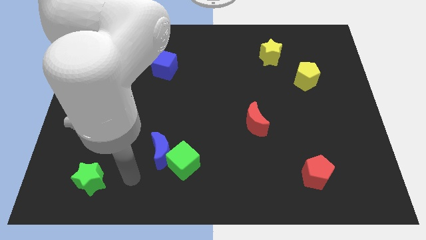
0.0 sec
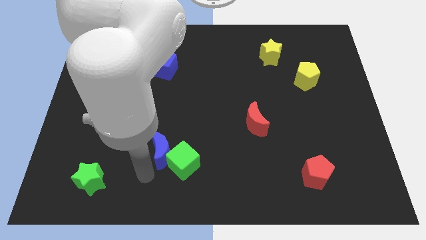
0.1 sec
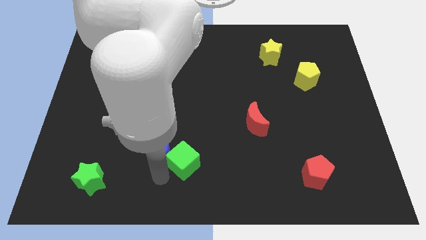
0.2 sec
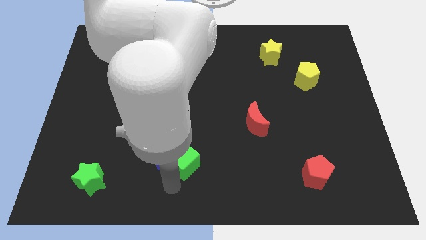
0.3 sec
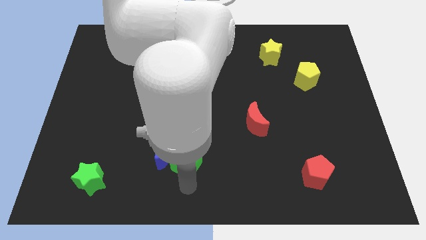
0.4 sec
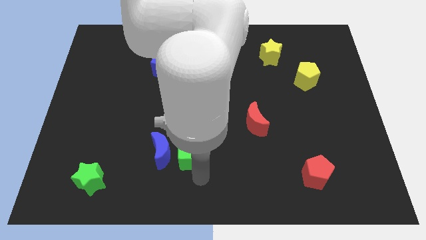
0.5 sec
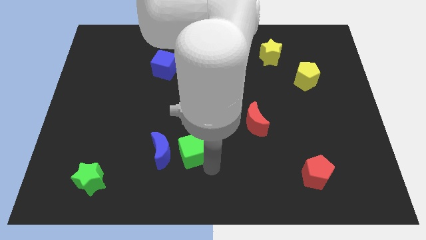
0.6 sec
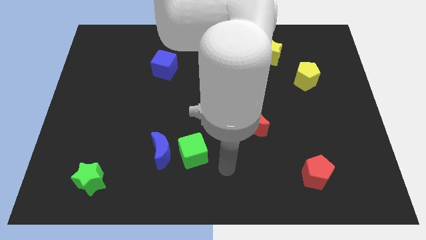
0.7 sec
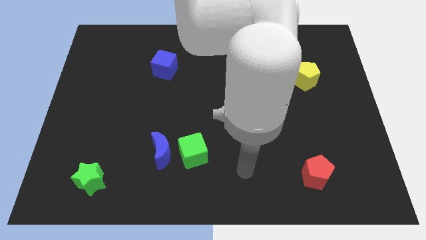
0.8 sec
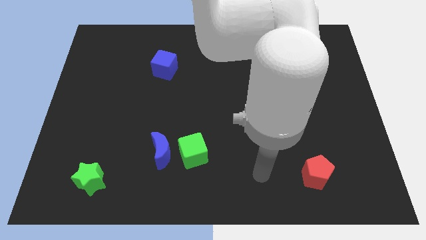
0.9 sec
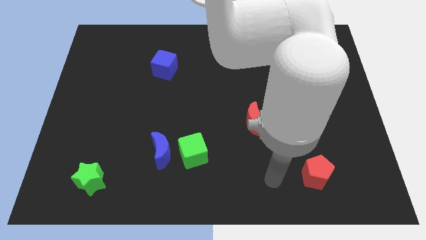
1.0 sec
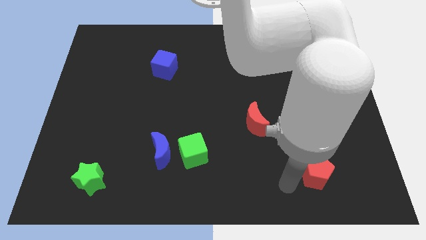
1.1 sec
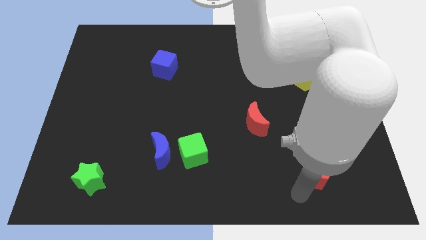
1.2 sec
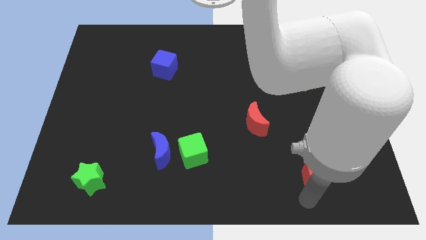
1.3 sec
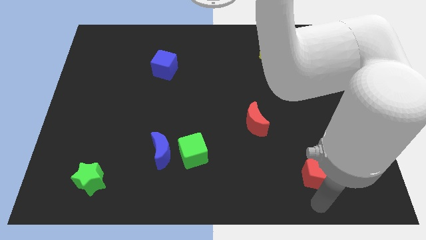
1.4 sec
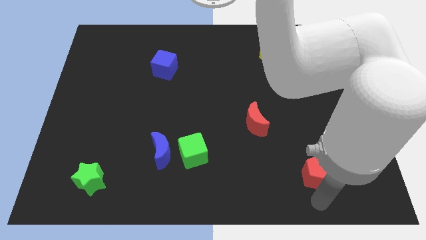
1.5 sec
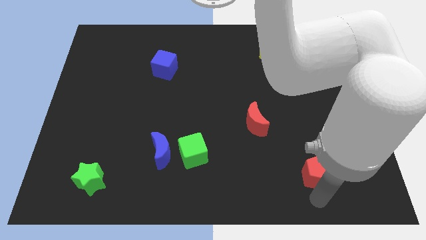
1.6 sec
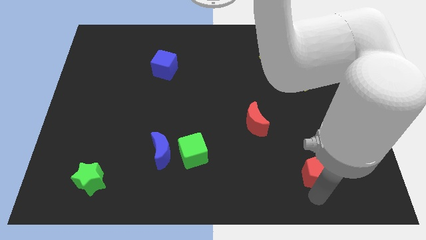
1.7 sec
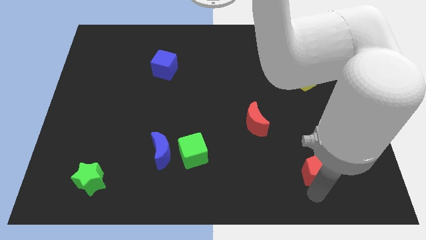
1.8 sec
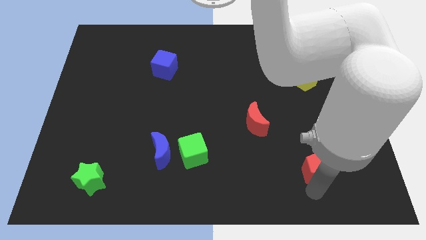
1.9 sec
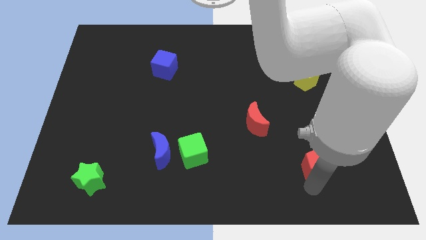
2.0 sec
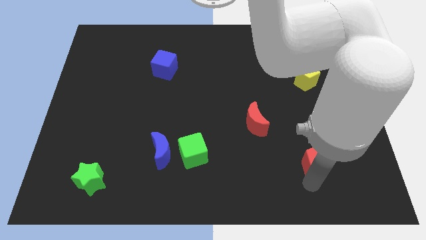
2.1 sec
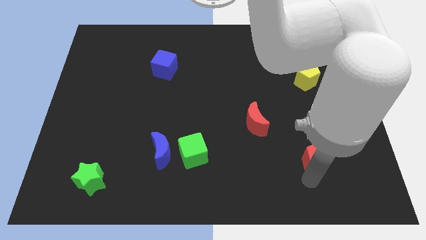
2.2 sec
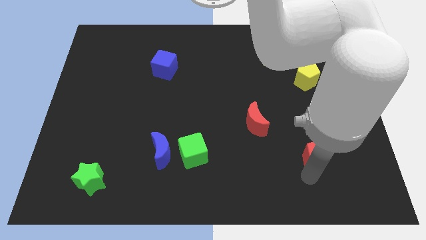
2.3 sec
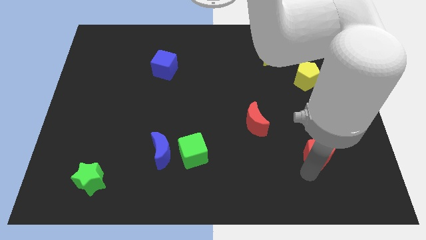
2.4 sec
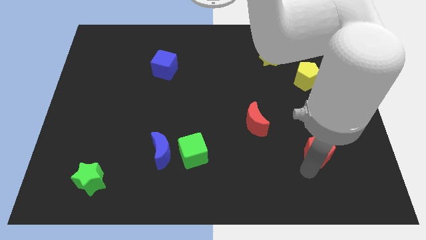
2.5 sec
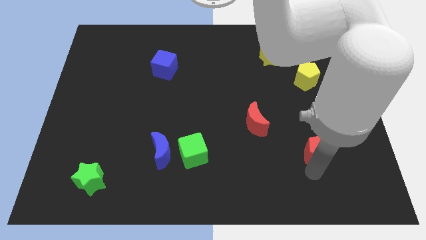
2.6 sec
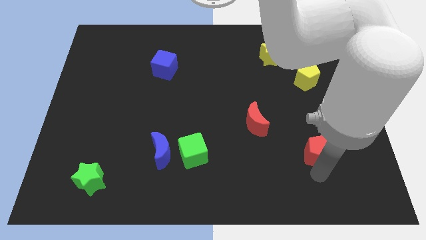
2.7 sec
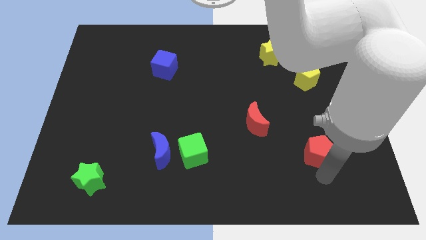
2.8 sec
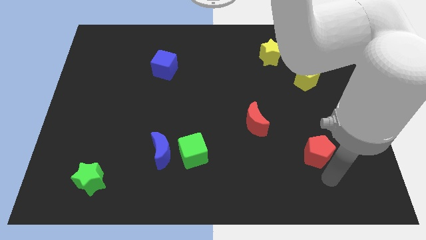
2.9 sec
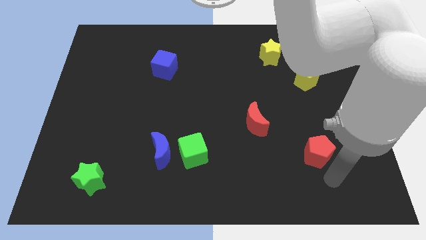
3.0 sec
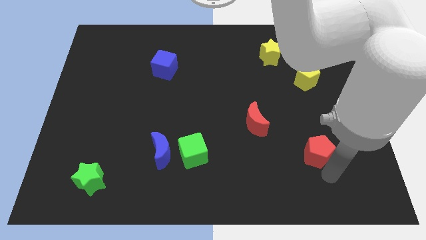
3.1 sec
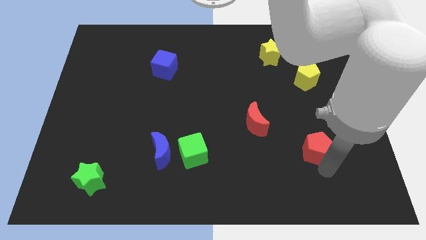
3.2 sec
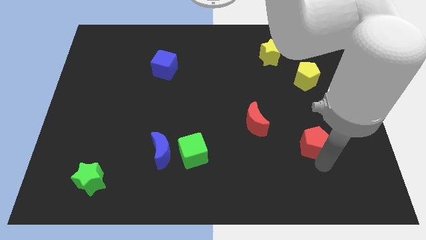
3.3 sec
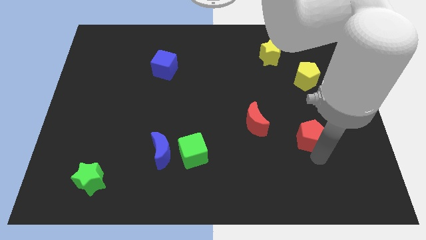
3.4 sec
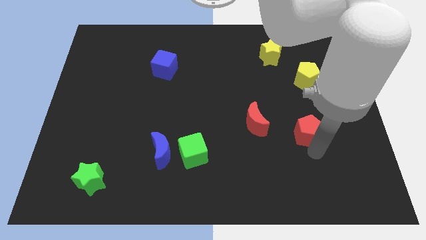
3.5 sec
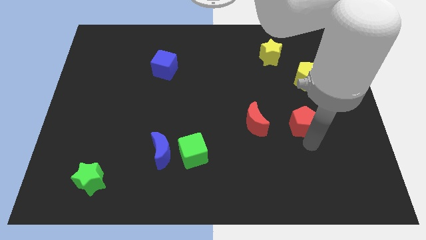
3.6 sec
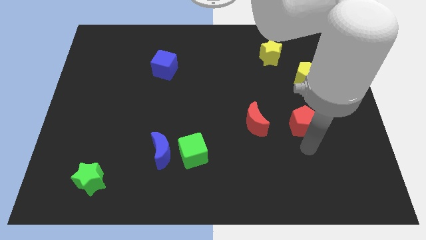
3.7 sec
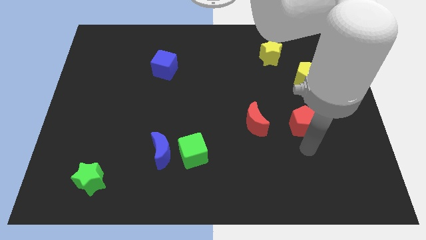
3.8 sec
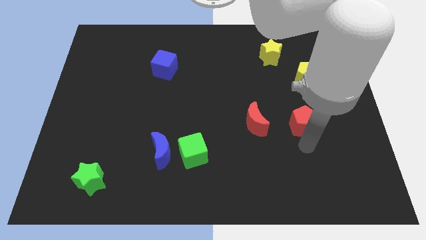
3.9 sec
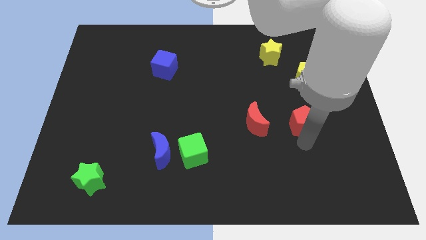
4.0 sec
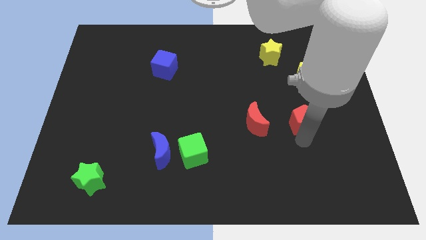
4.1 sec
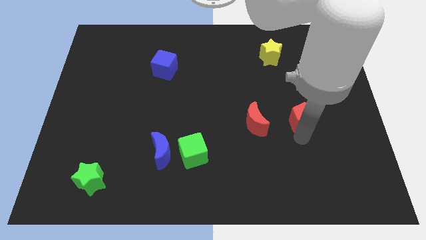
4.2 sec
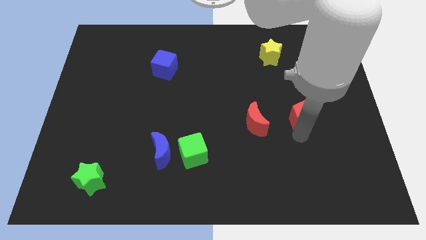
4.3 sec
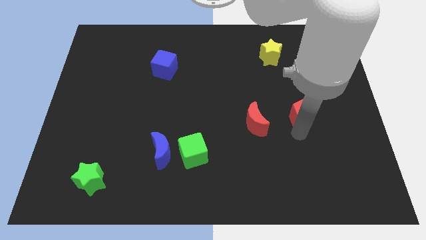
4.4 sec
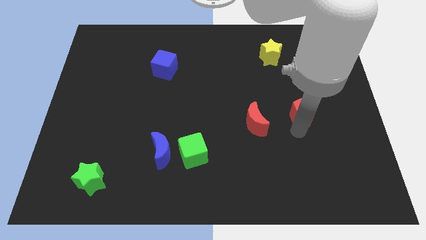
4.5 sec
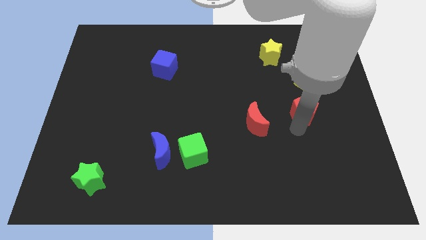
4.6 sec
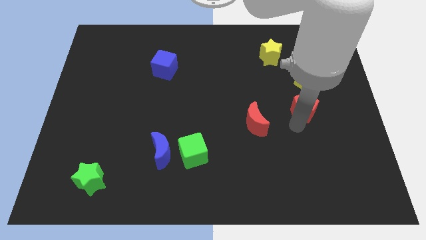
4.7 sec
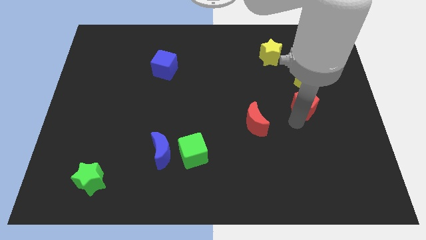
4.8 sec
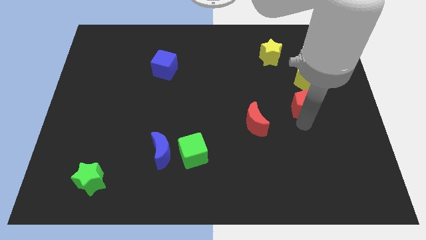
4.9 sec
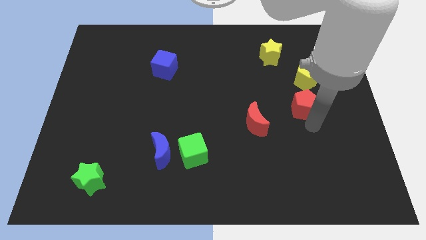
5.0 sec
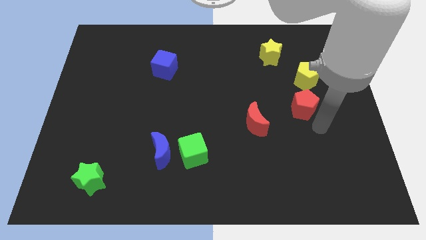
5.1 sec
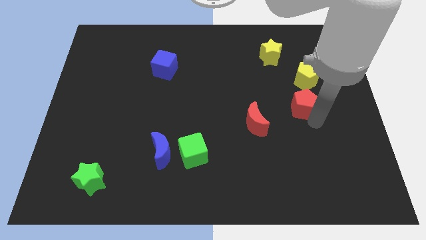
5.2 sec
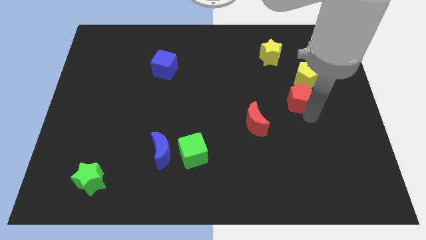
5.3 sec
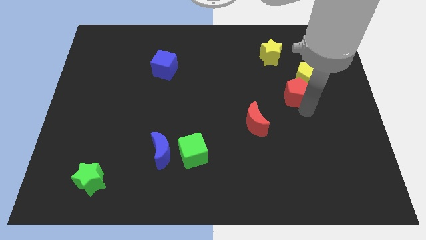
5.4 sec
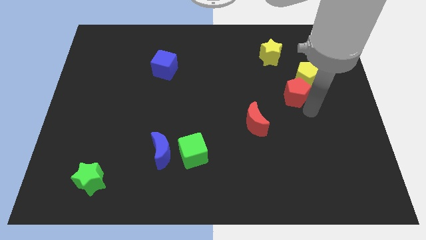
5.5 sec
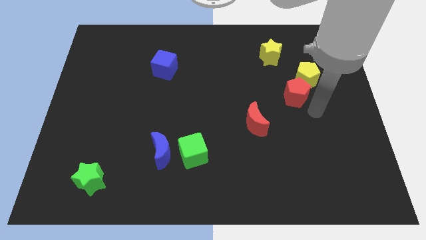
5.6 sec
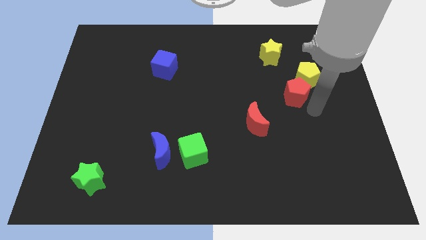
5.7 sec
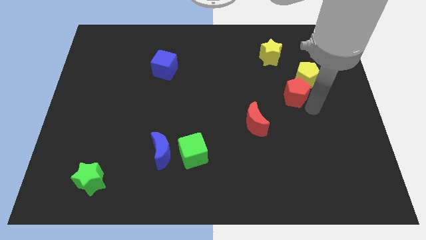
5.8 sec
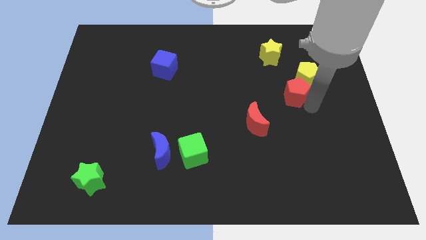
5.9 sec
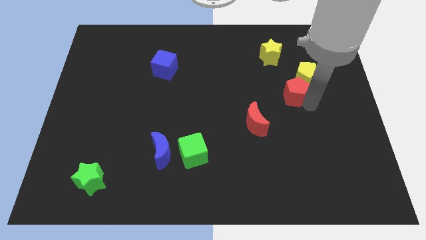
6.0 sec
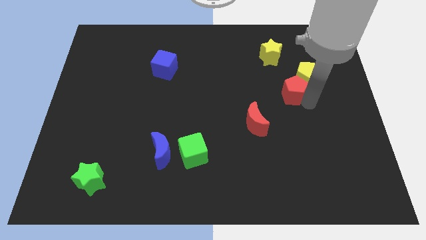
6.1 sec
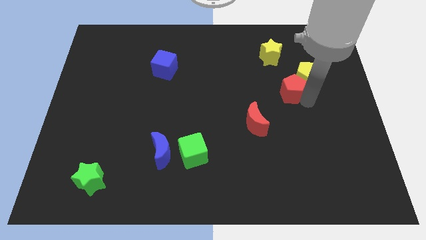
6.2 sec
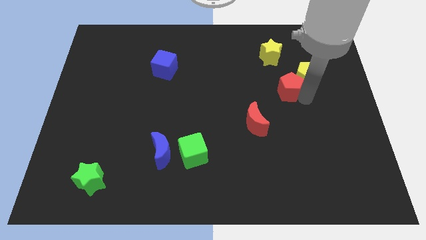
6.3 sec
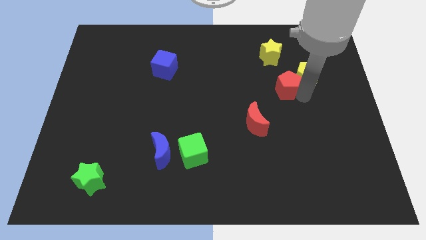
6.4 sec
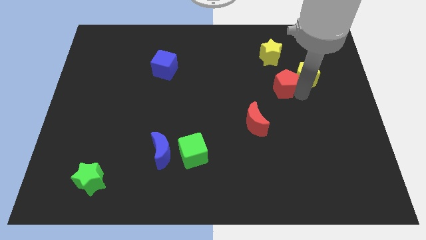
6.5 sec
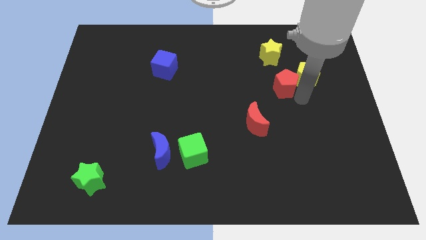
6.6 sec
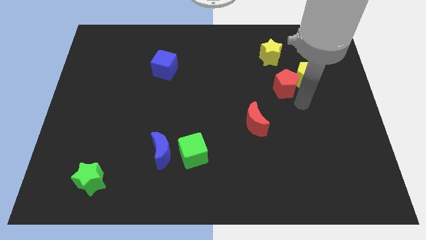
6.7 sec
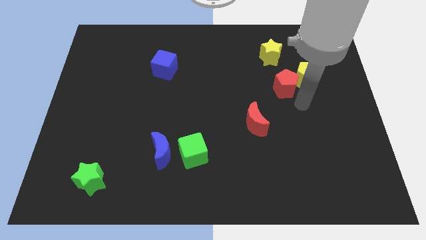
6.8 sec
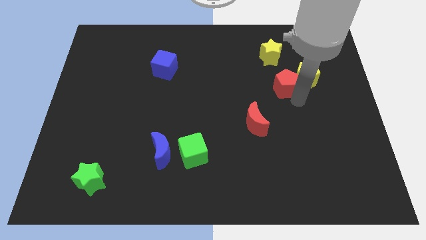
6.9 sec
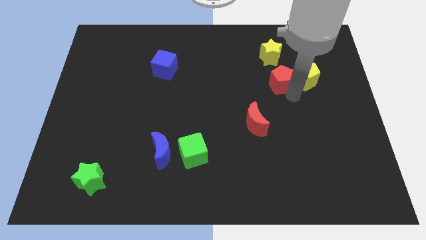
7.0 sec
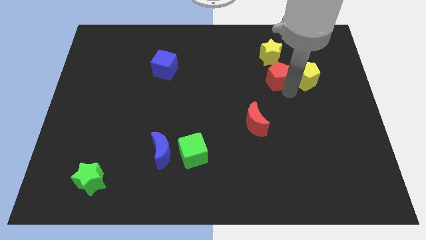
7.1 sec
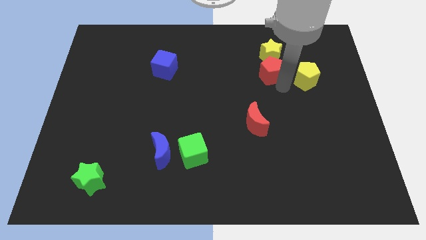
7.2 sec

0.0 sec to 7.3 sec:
put the red pentagon close to the yellow star
